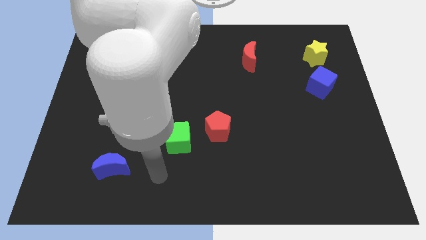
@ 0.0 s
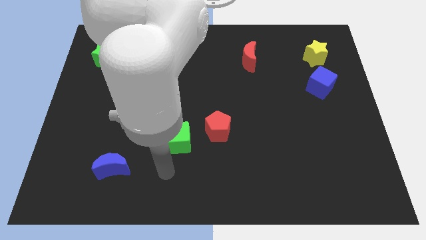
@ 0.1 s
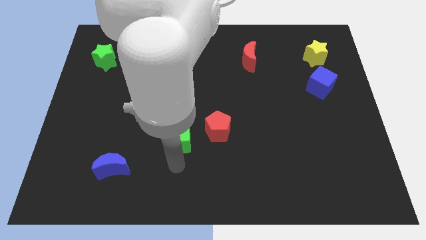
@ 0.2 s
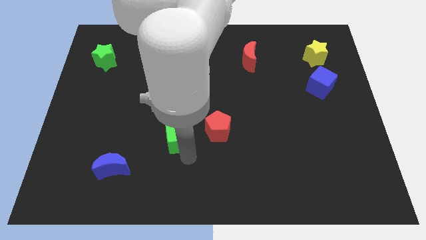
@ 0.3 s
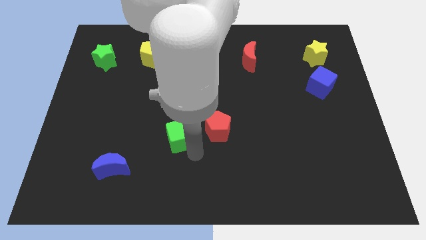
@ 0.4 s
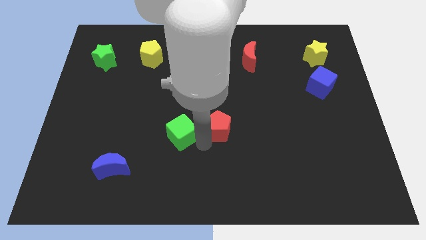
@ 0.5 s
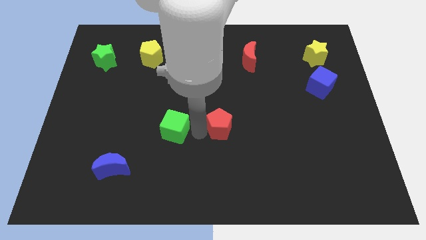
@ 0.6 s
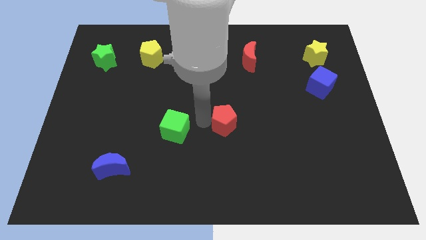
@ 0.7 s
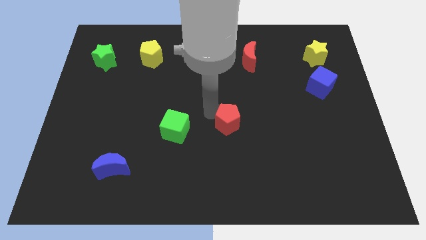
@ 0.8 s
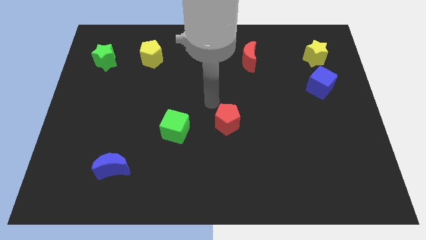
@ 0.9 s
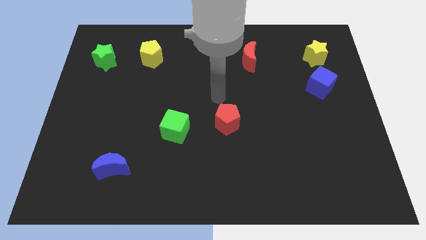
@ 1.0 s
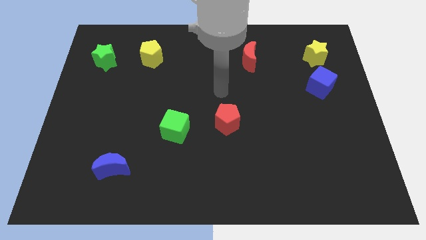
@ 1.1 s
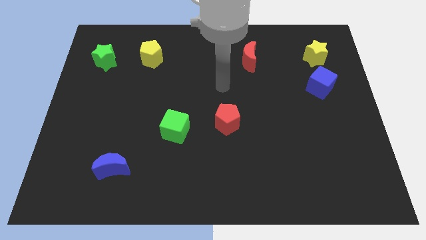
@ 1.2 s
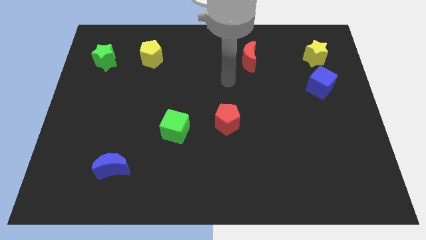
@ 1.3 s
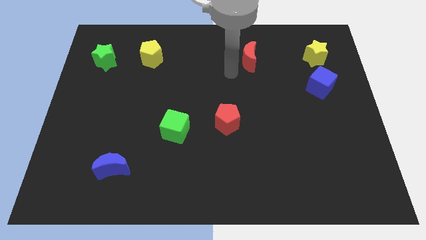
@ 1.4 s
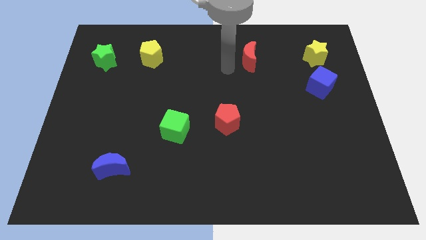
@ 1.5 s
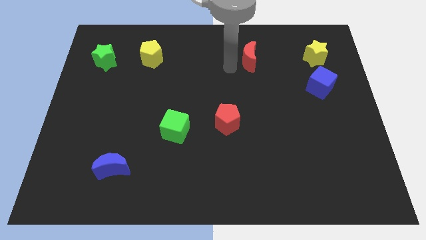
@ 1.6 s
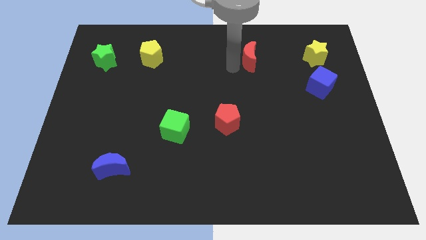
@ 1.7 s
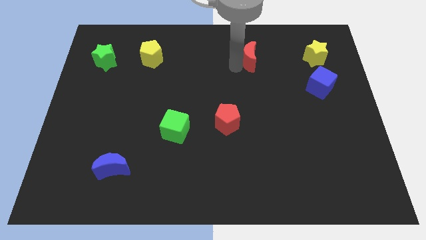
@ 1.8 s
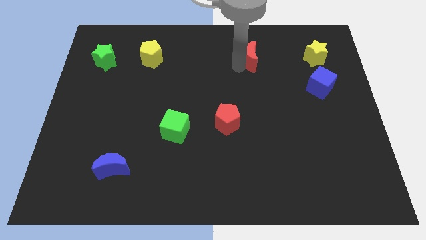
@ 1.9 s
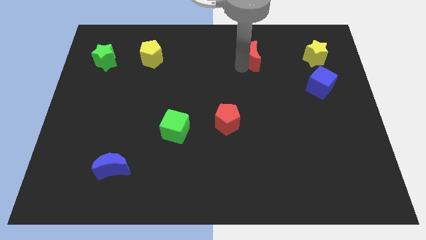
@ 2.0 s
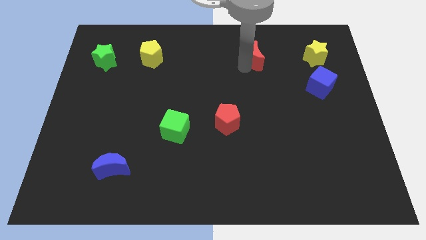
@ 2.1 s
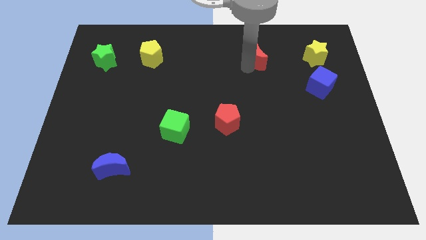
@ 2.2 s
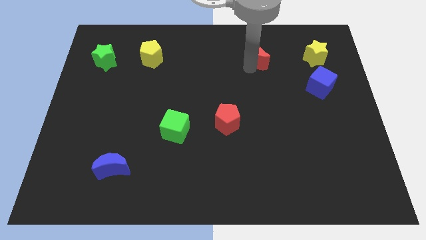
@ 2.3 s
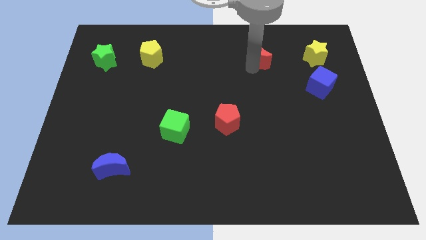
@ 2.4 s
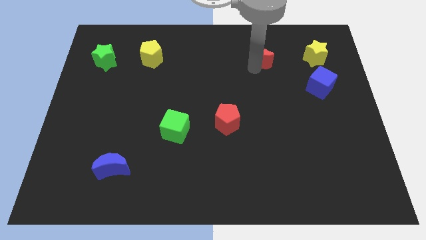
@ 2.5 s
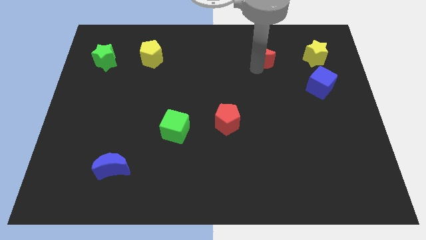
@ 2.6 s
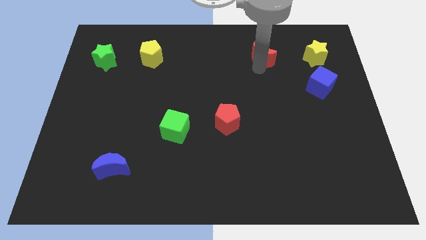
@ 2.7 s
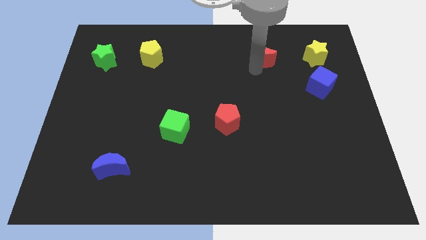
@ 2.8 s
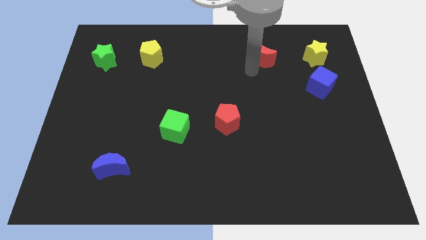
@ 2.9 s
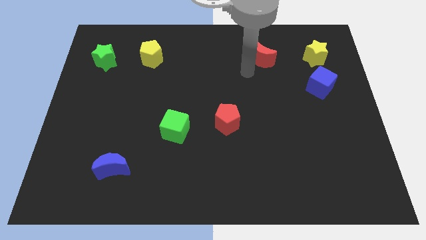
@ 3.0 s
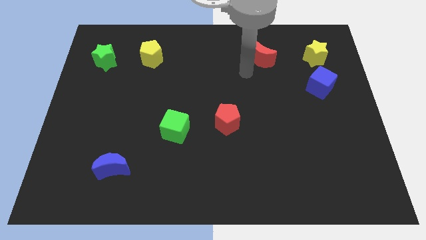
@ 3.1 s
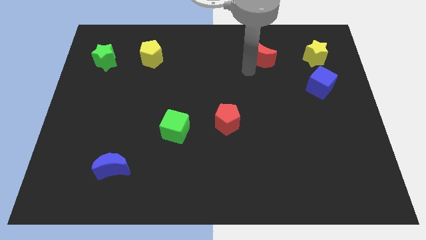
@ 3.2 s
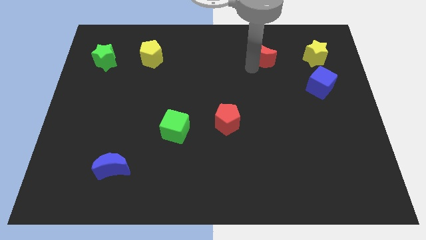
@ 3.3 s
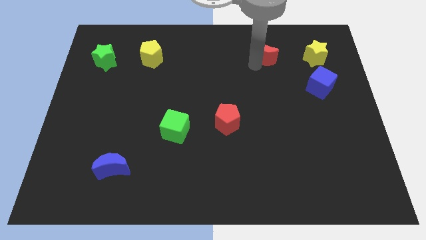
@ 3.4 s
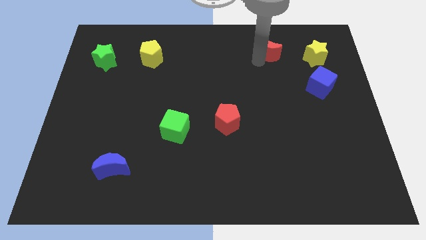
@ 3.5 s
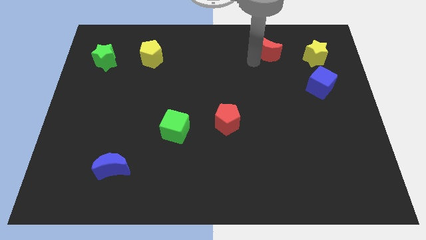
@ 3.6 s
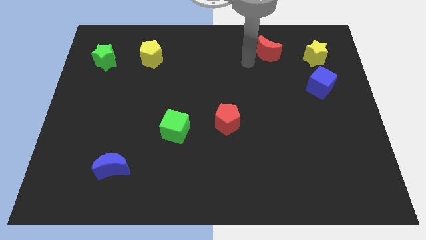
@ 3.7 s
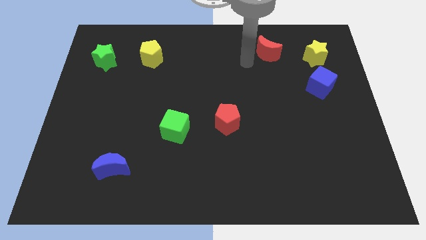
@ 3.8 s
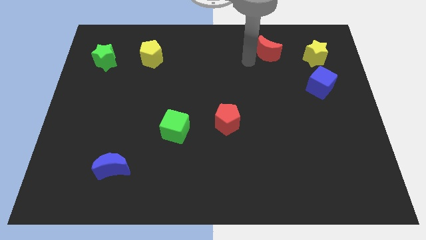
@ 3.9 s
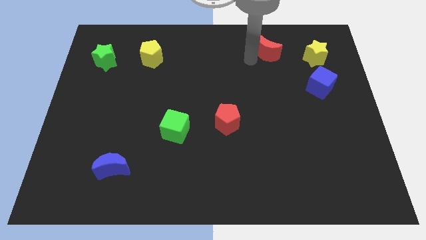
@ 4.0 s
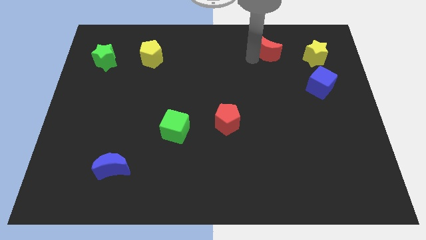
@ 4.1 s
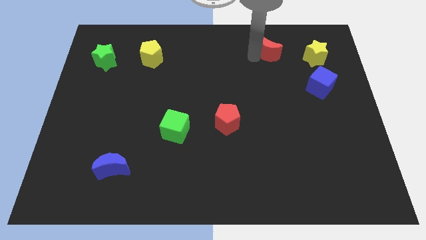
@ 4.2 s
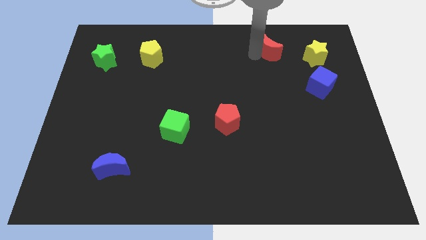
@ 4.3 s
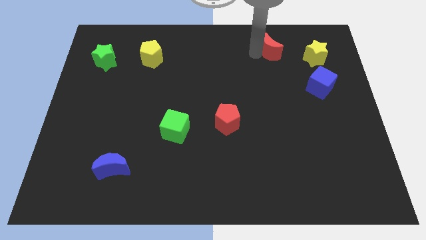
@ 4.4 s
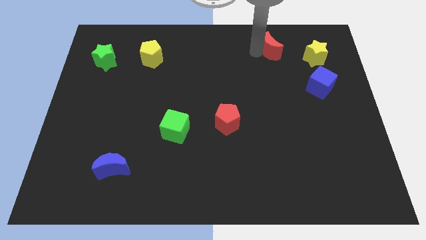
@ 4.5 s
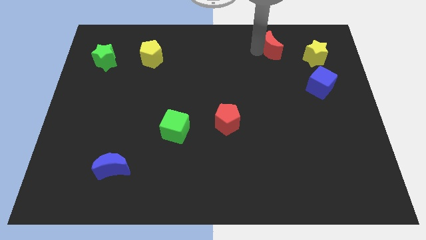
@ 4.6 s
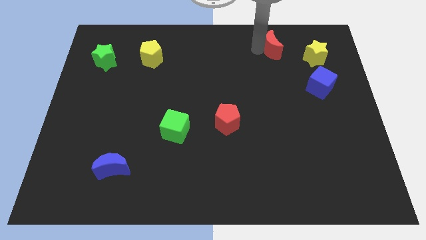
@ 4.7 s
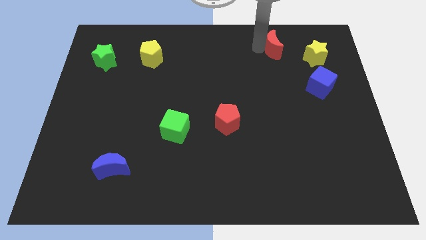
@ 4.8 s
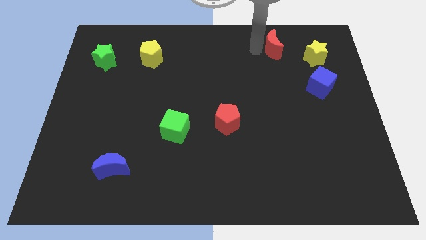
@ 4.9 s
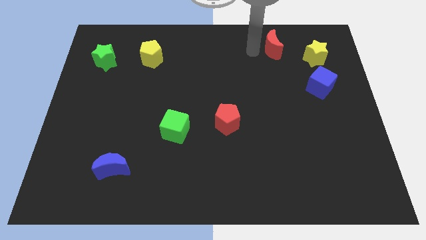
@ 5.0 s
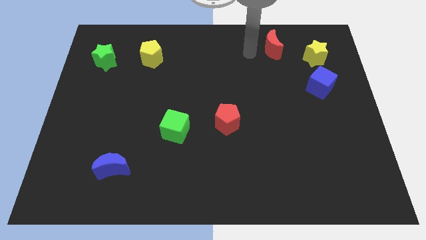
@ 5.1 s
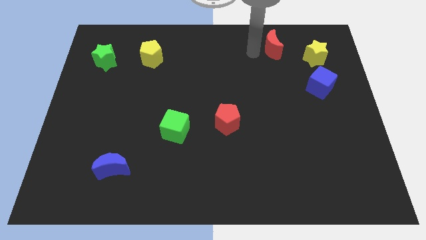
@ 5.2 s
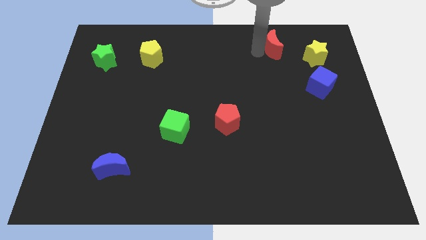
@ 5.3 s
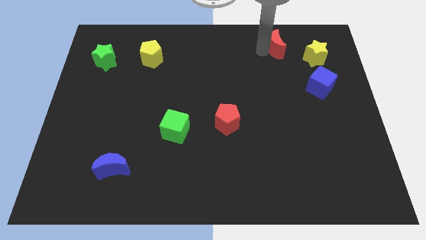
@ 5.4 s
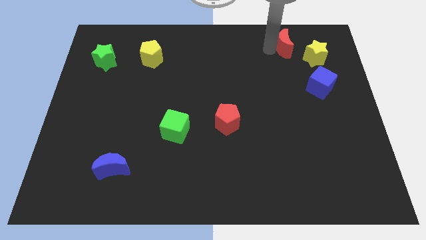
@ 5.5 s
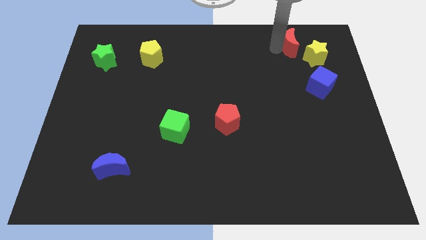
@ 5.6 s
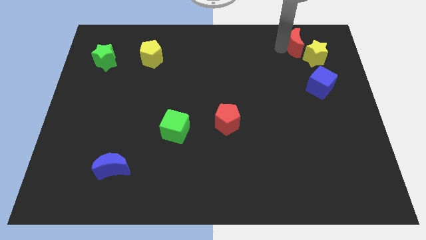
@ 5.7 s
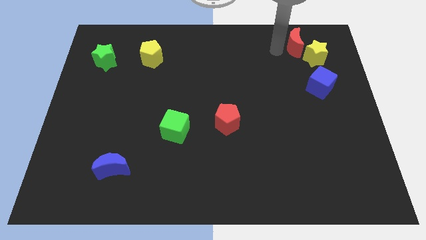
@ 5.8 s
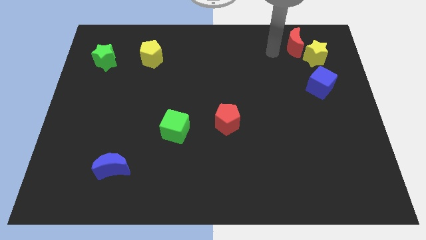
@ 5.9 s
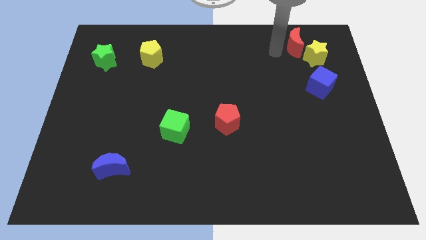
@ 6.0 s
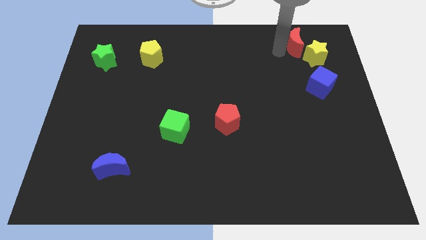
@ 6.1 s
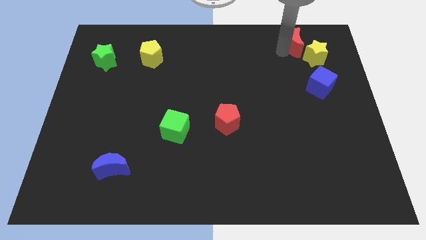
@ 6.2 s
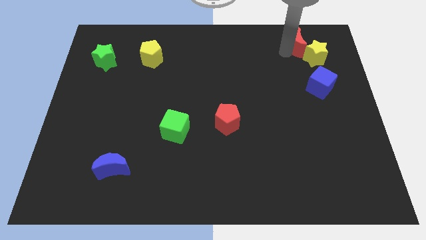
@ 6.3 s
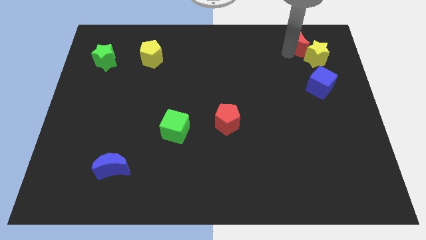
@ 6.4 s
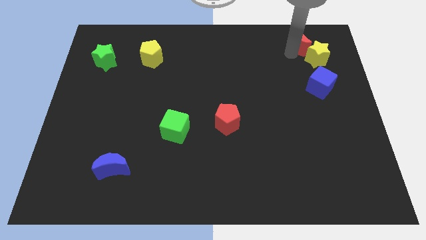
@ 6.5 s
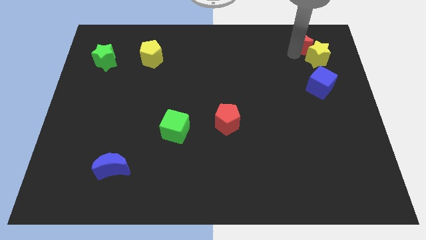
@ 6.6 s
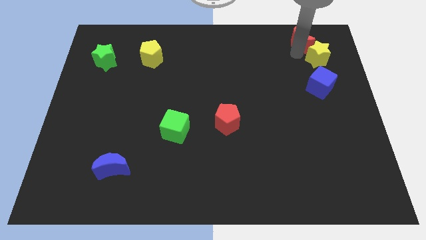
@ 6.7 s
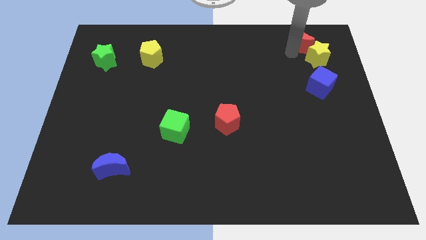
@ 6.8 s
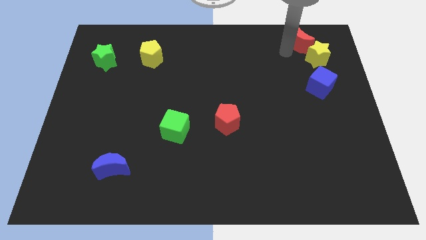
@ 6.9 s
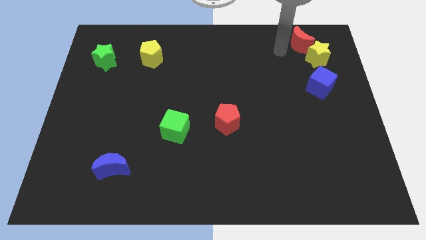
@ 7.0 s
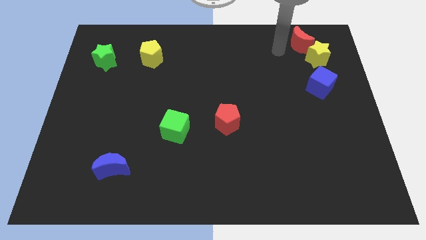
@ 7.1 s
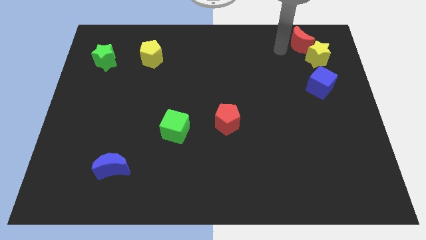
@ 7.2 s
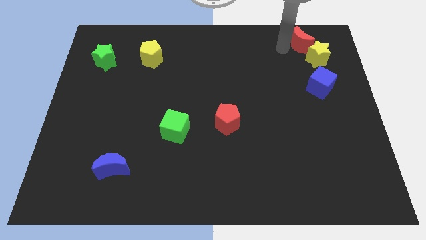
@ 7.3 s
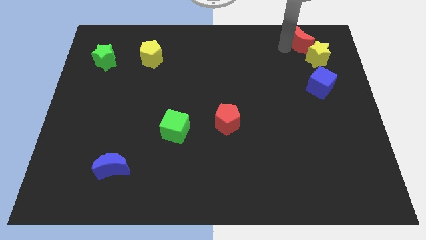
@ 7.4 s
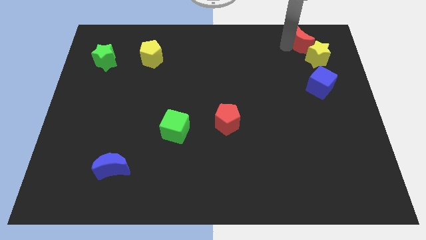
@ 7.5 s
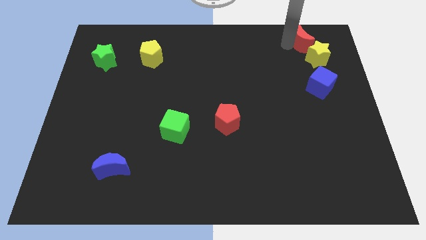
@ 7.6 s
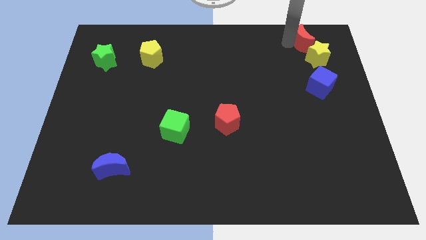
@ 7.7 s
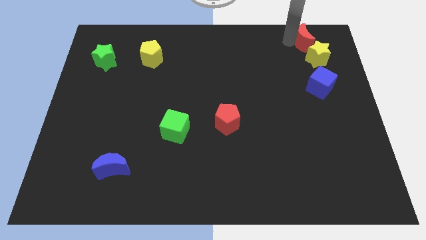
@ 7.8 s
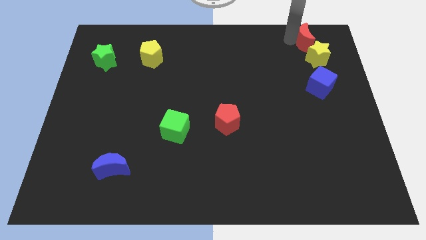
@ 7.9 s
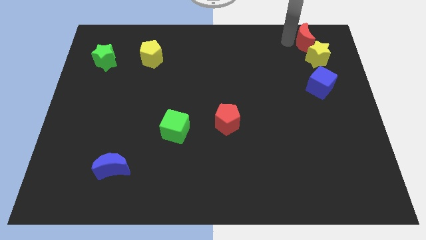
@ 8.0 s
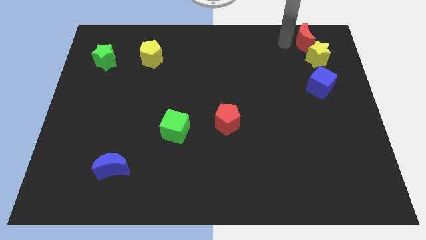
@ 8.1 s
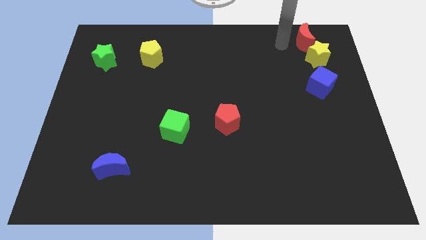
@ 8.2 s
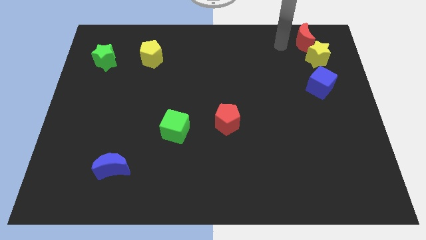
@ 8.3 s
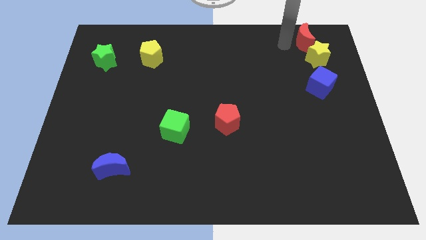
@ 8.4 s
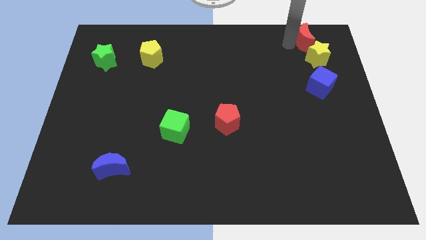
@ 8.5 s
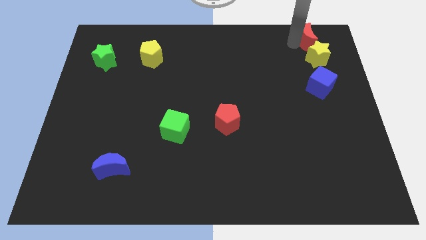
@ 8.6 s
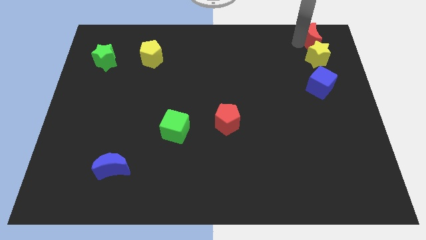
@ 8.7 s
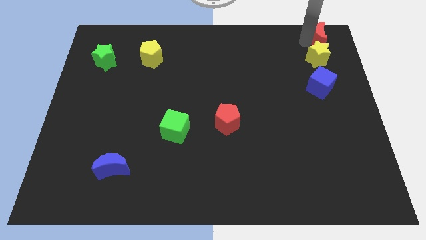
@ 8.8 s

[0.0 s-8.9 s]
push the red moon to the top right of the board
